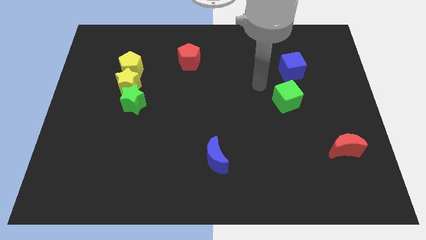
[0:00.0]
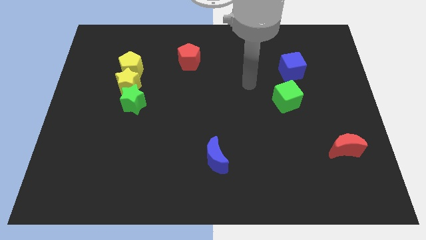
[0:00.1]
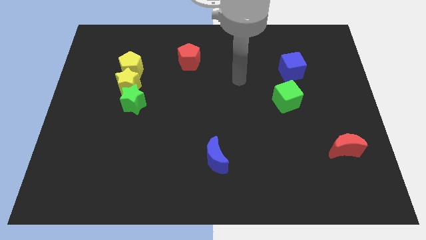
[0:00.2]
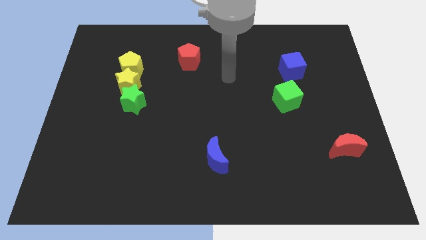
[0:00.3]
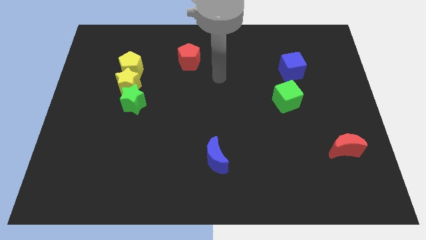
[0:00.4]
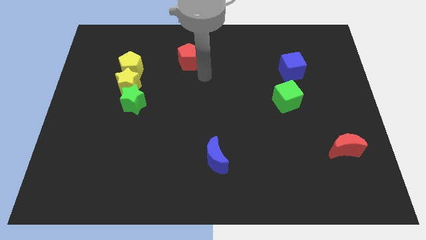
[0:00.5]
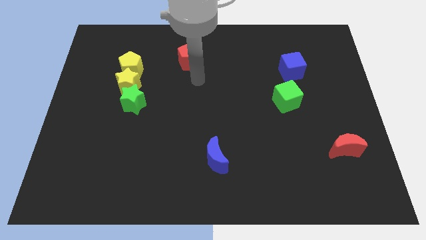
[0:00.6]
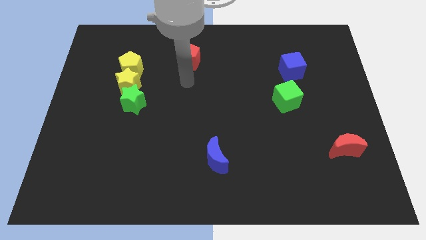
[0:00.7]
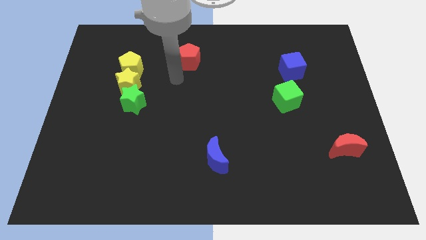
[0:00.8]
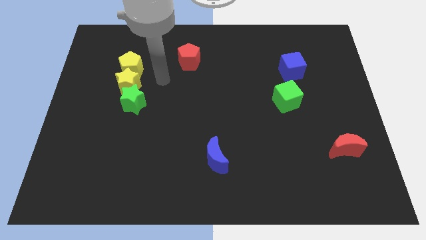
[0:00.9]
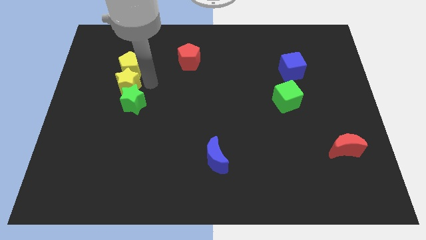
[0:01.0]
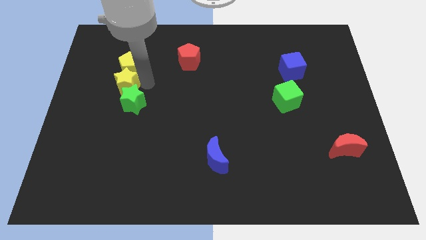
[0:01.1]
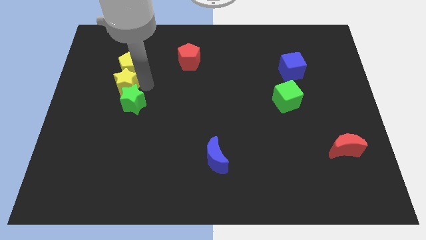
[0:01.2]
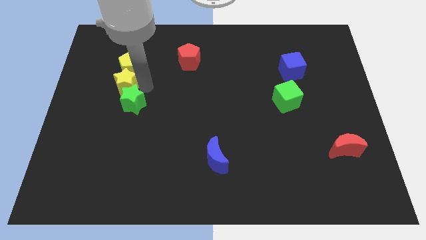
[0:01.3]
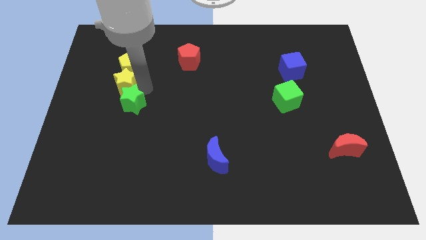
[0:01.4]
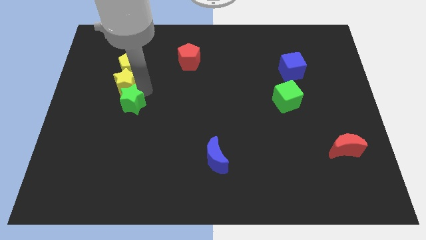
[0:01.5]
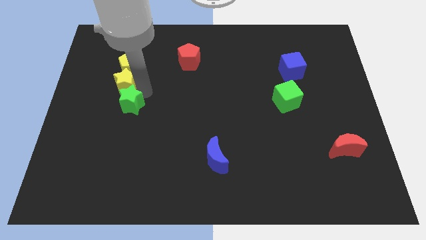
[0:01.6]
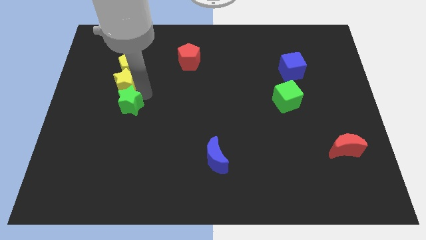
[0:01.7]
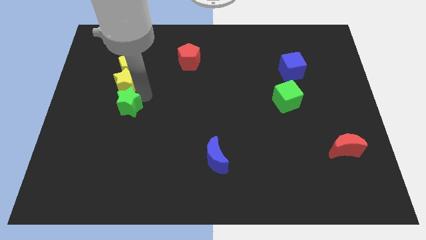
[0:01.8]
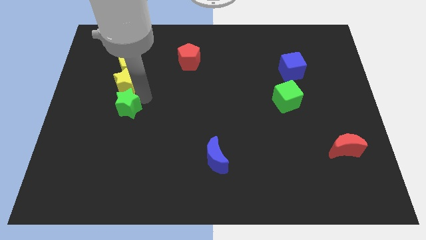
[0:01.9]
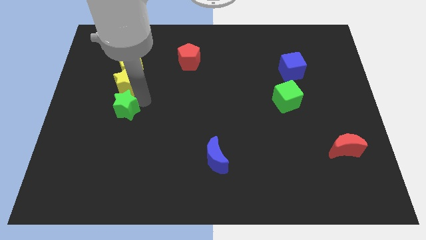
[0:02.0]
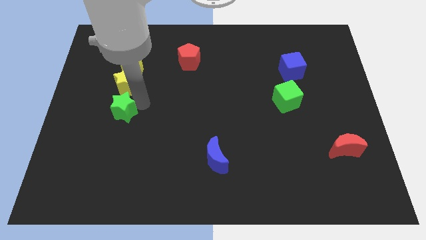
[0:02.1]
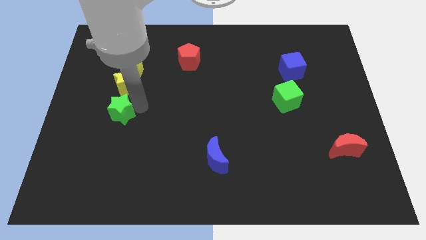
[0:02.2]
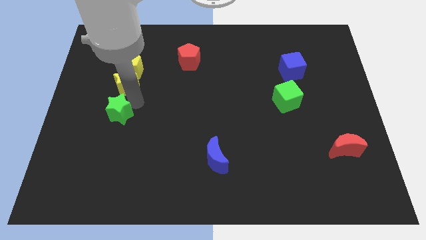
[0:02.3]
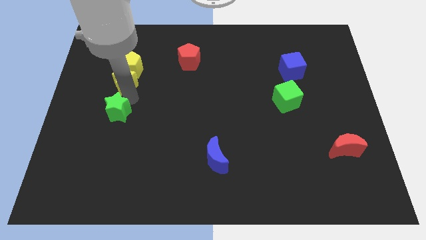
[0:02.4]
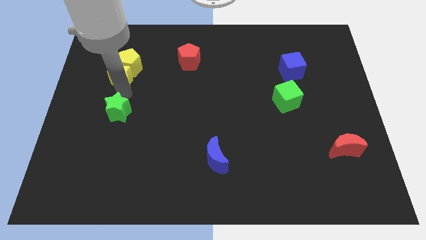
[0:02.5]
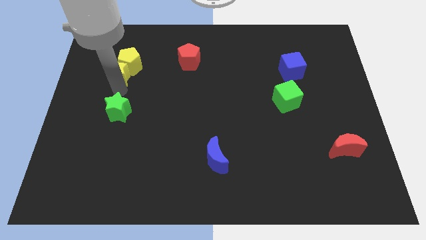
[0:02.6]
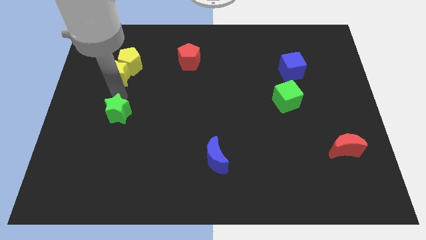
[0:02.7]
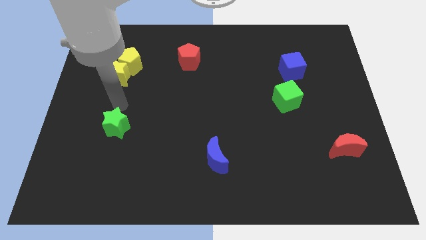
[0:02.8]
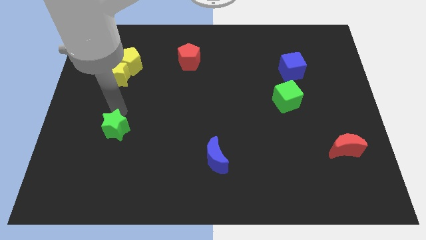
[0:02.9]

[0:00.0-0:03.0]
slide the green star downwards somewhat

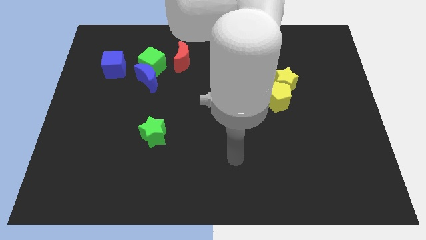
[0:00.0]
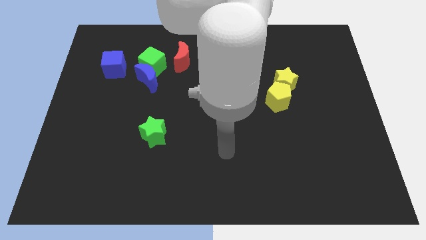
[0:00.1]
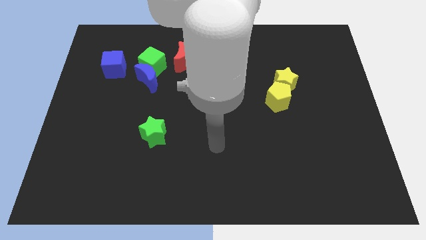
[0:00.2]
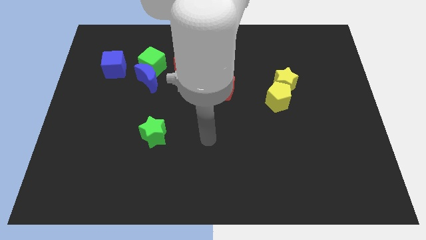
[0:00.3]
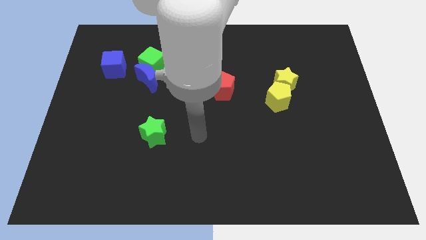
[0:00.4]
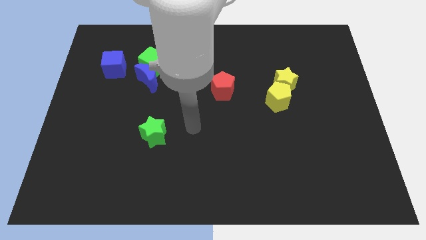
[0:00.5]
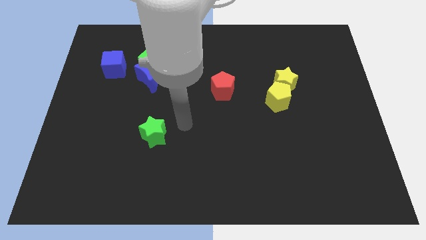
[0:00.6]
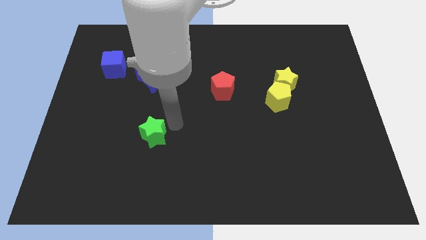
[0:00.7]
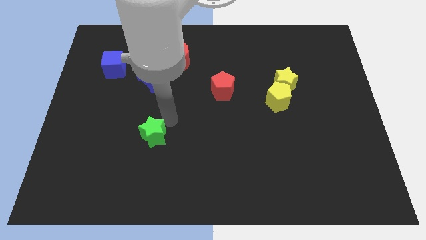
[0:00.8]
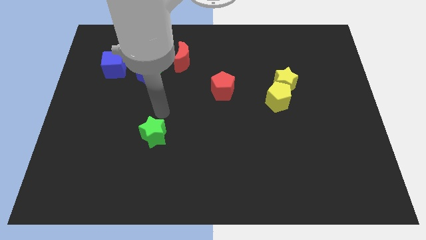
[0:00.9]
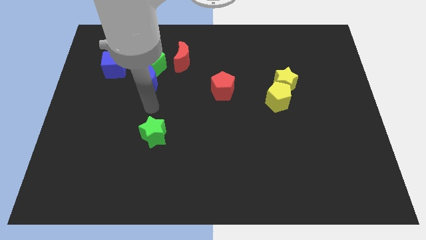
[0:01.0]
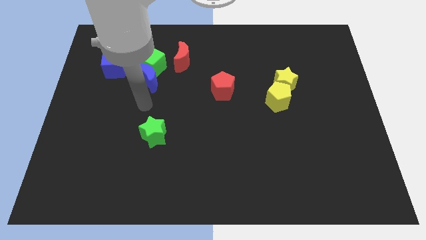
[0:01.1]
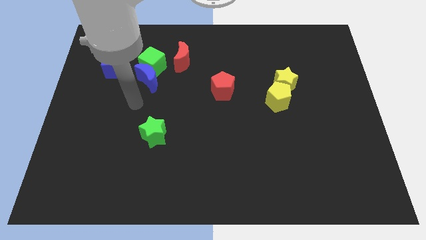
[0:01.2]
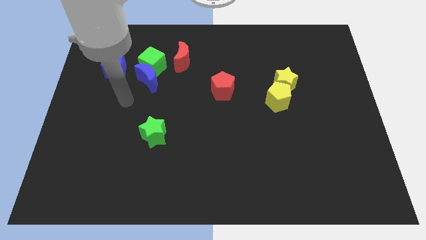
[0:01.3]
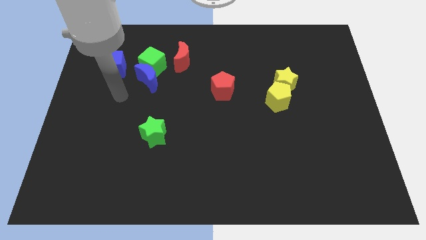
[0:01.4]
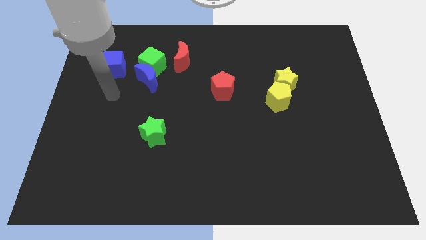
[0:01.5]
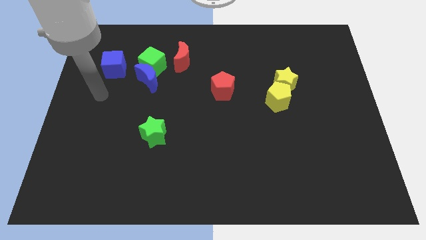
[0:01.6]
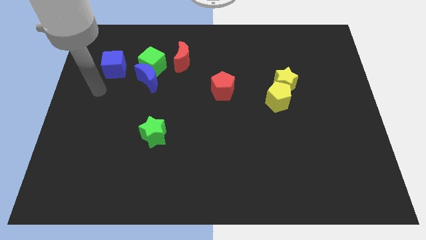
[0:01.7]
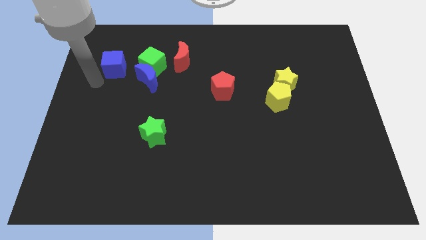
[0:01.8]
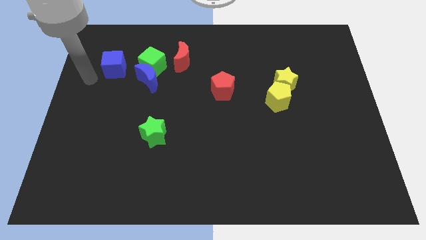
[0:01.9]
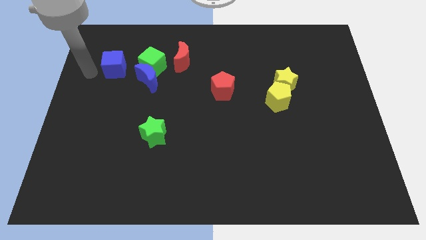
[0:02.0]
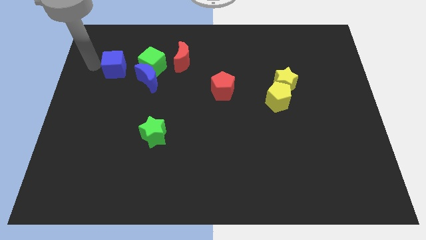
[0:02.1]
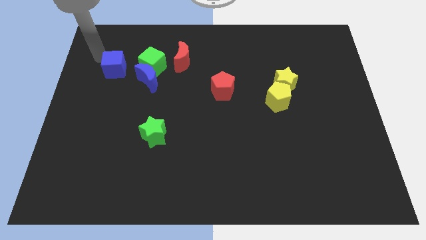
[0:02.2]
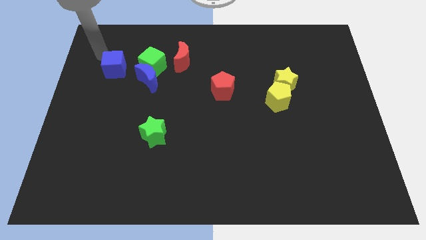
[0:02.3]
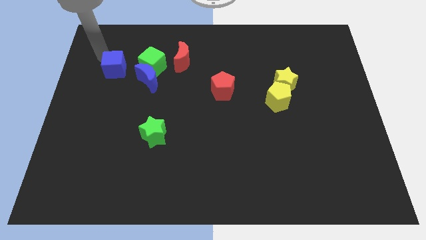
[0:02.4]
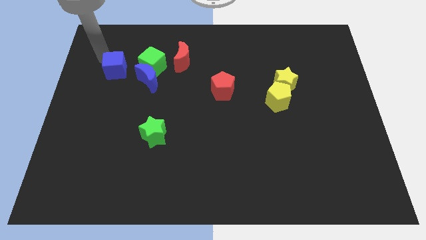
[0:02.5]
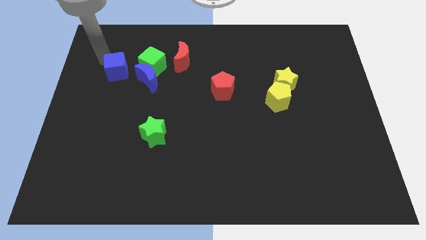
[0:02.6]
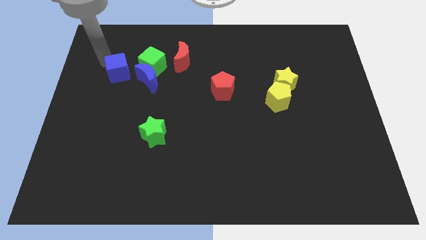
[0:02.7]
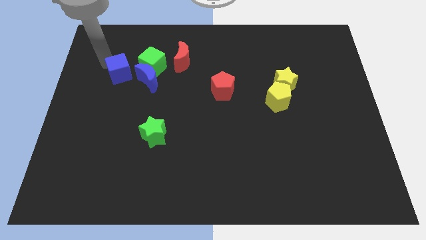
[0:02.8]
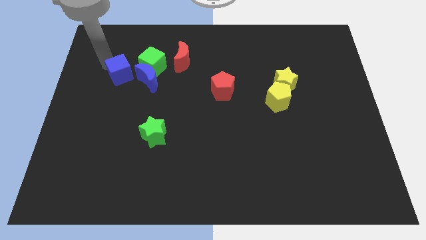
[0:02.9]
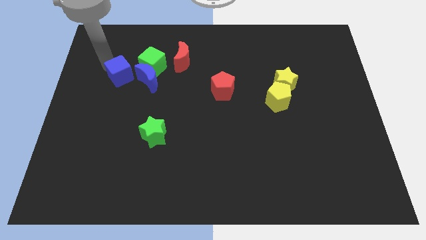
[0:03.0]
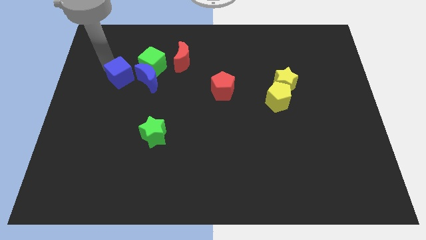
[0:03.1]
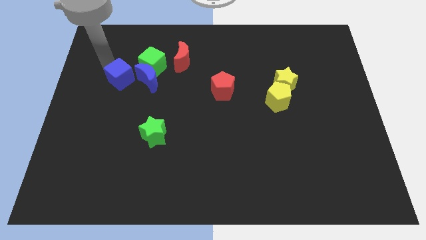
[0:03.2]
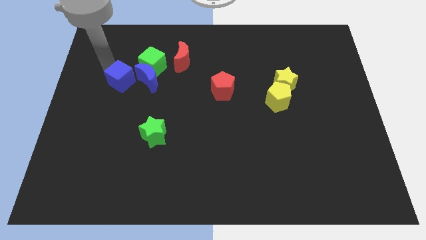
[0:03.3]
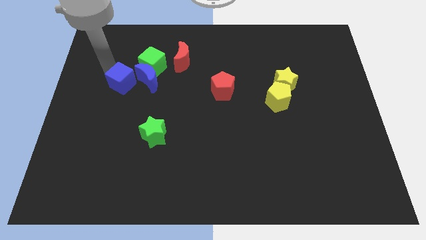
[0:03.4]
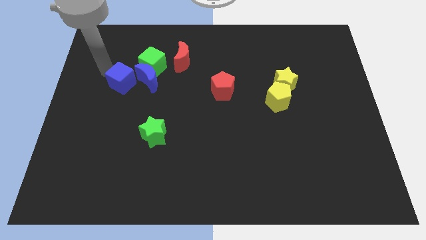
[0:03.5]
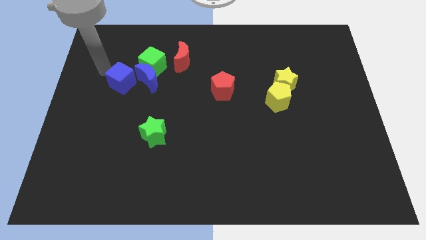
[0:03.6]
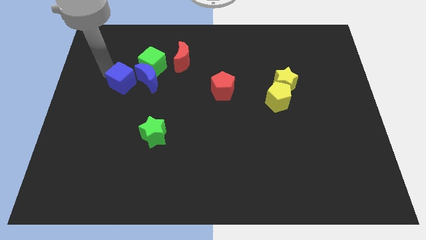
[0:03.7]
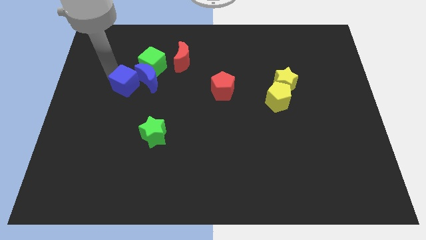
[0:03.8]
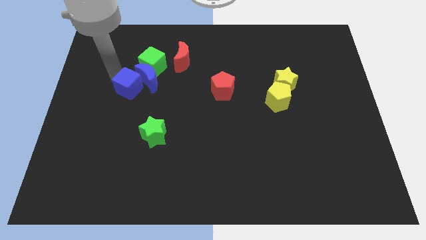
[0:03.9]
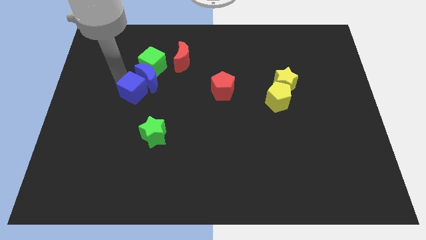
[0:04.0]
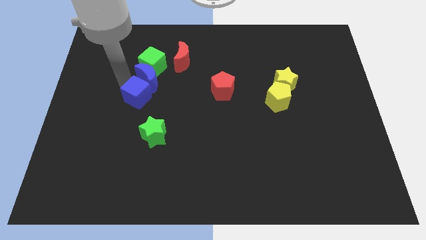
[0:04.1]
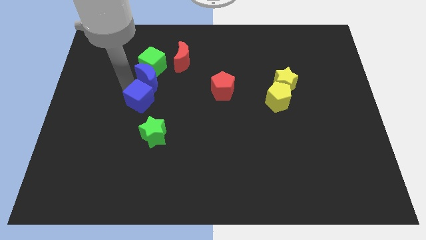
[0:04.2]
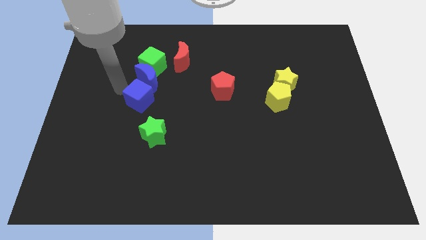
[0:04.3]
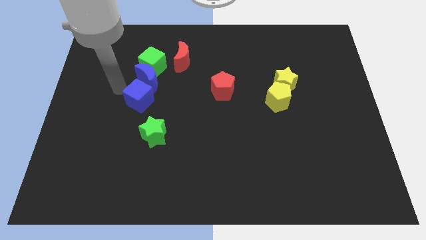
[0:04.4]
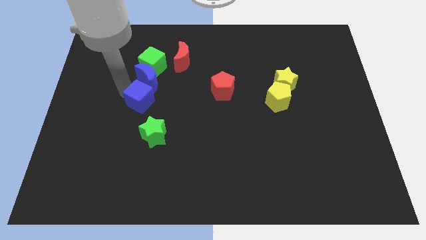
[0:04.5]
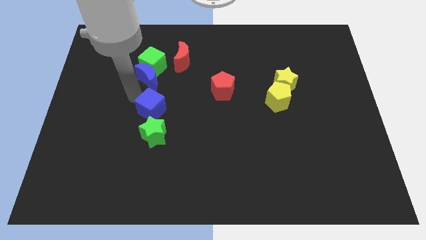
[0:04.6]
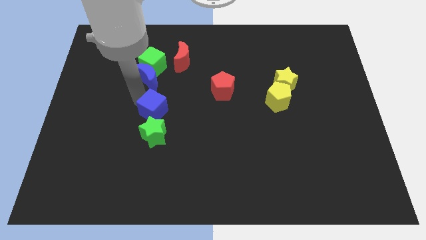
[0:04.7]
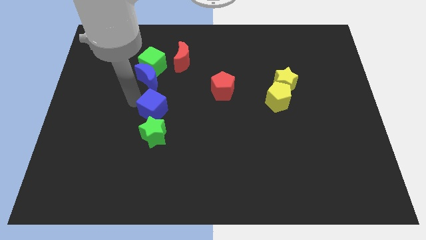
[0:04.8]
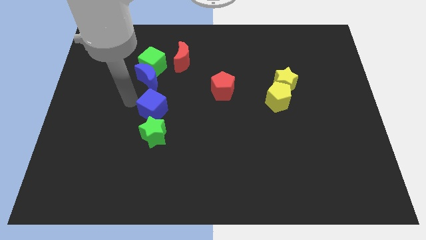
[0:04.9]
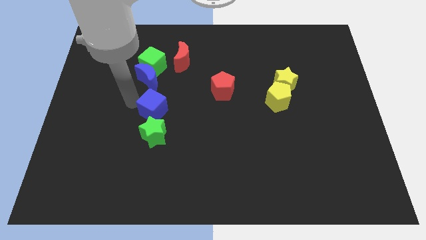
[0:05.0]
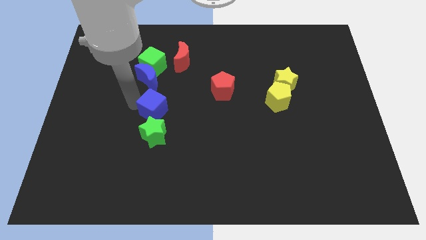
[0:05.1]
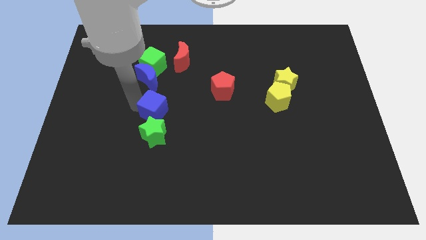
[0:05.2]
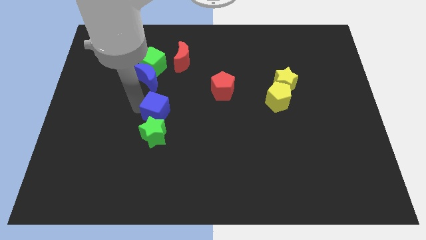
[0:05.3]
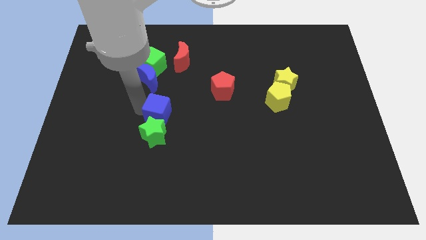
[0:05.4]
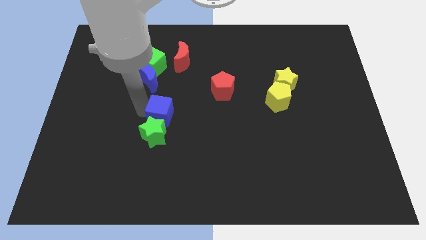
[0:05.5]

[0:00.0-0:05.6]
push the blue cube downwards and then to the right
